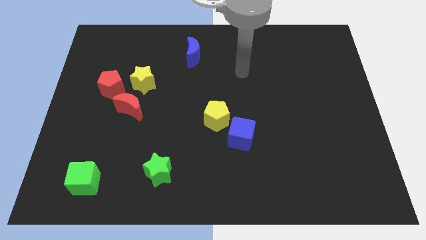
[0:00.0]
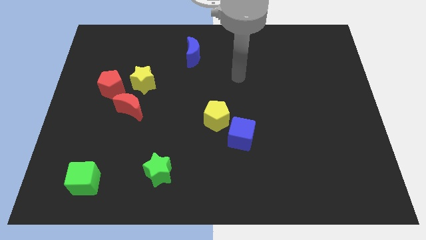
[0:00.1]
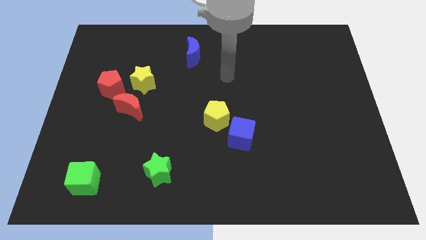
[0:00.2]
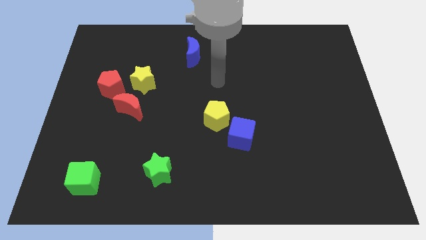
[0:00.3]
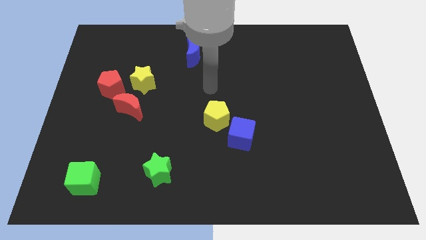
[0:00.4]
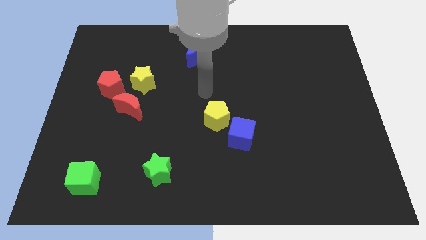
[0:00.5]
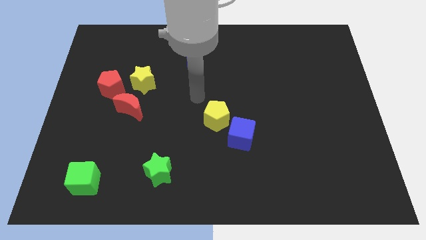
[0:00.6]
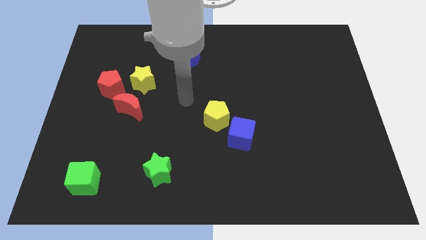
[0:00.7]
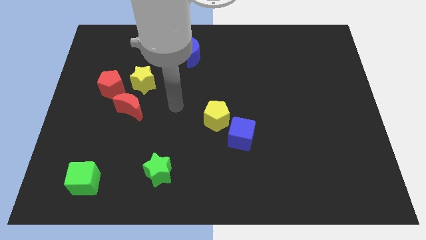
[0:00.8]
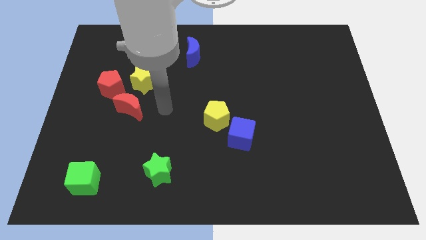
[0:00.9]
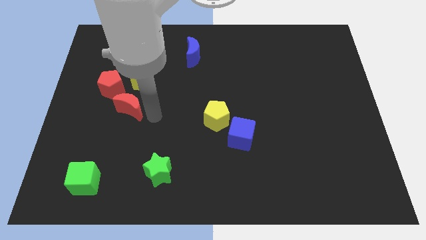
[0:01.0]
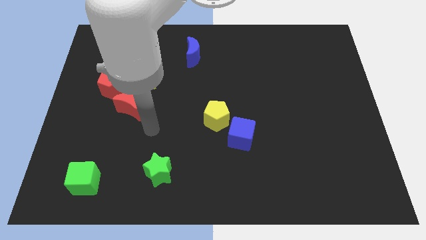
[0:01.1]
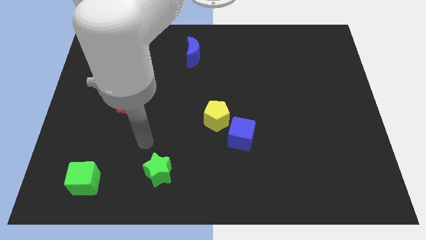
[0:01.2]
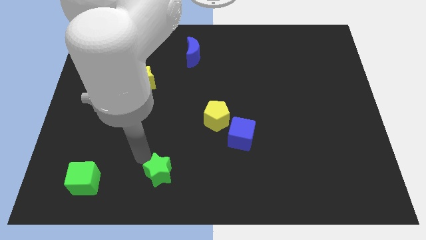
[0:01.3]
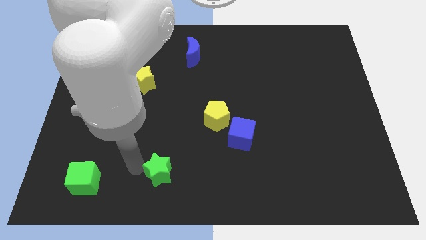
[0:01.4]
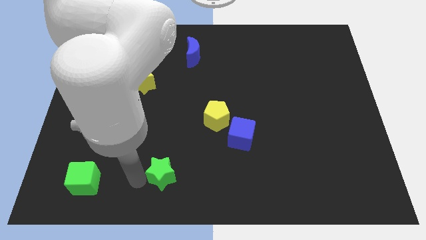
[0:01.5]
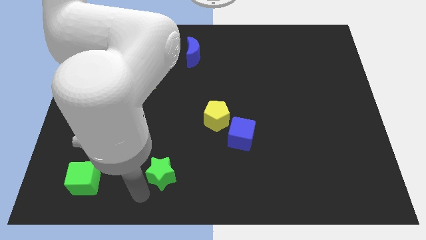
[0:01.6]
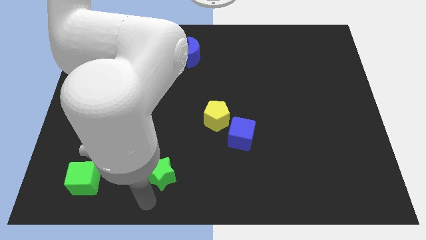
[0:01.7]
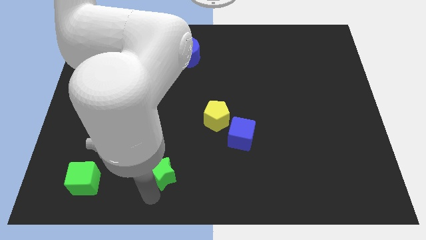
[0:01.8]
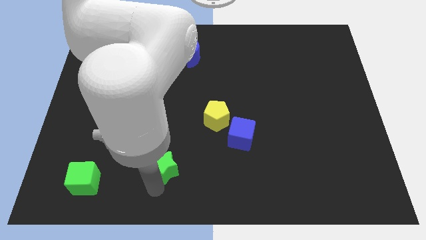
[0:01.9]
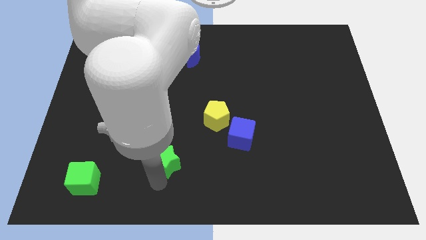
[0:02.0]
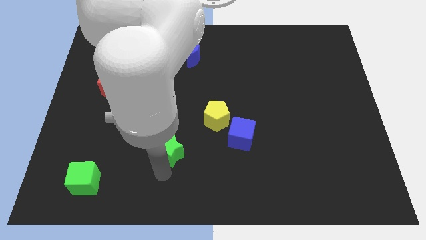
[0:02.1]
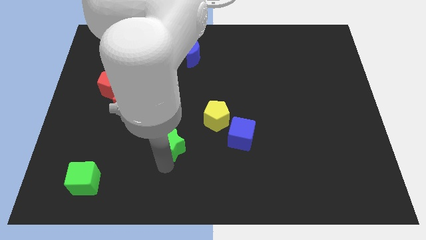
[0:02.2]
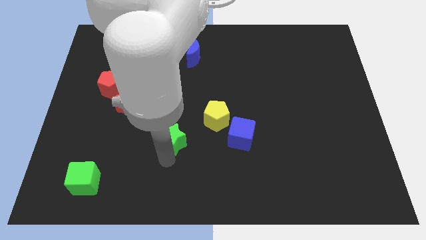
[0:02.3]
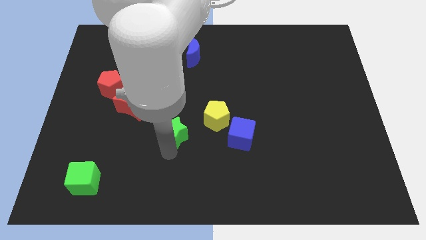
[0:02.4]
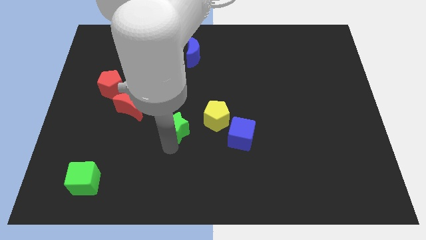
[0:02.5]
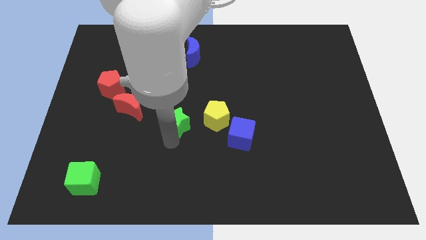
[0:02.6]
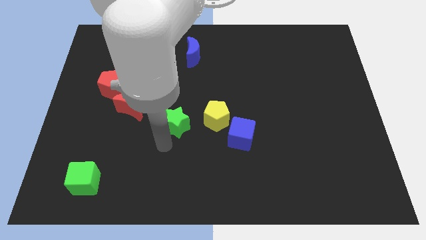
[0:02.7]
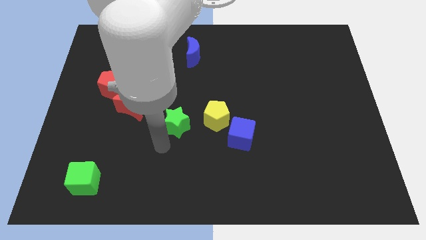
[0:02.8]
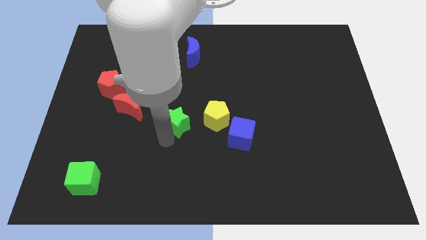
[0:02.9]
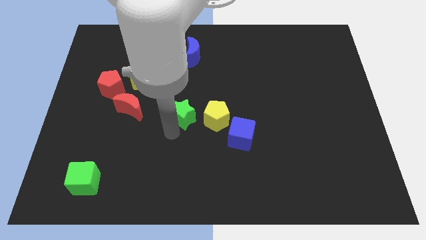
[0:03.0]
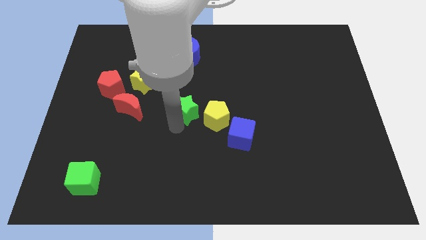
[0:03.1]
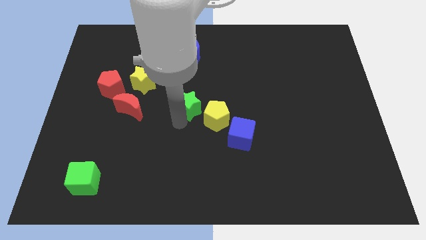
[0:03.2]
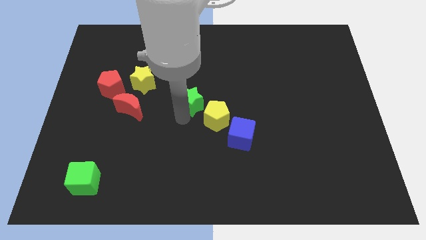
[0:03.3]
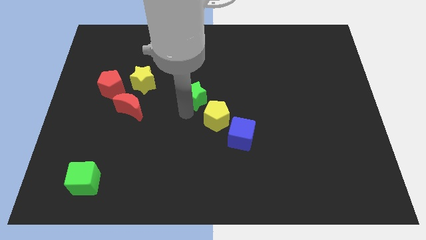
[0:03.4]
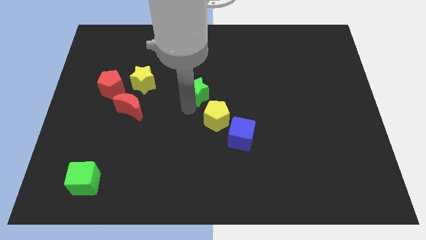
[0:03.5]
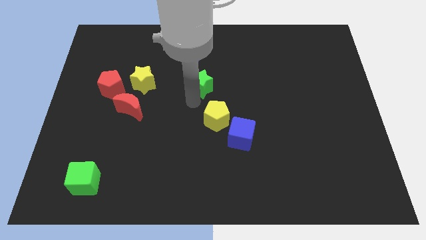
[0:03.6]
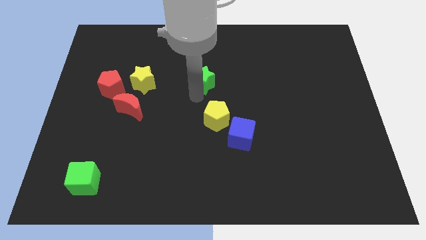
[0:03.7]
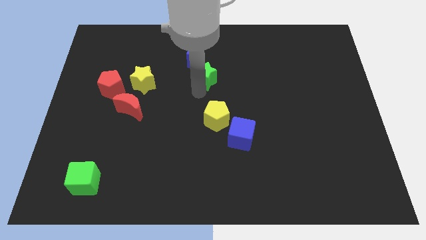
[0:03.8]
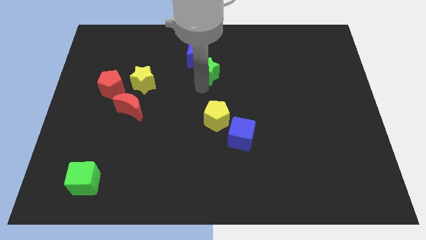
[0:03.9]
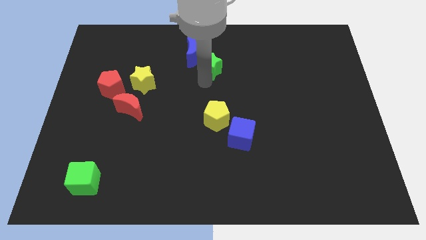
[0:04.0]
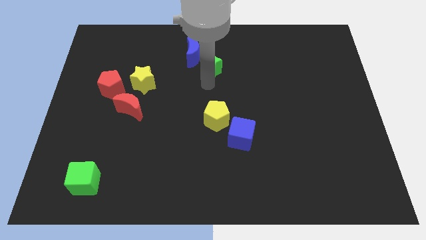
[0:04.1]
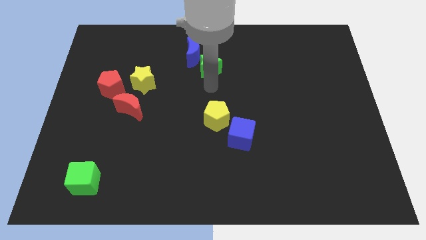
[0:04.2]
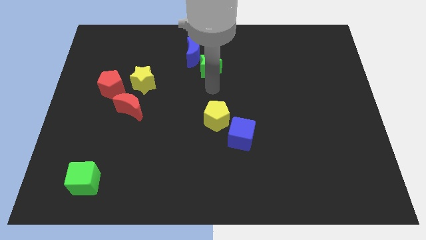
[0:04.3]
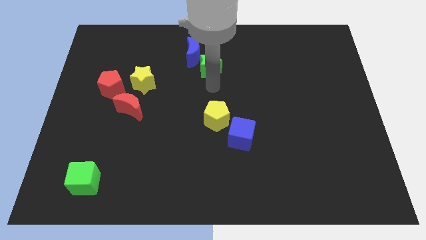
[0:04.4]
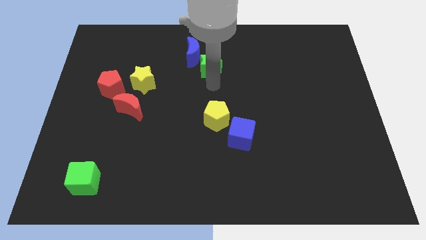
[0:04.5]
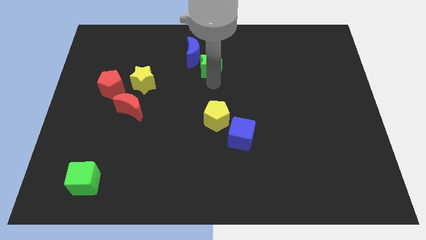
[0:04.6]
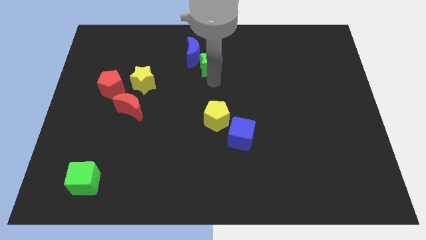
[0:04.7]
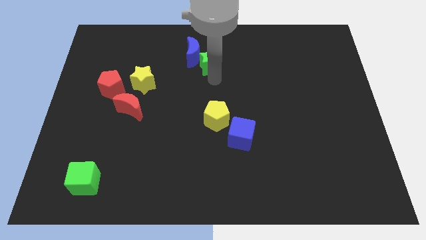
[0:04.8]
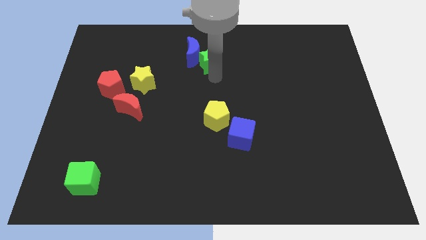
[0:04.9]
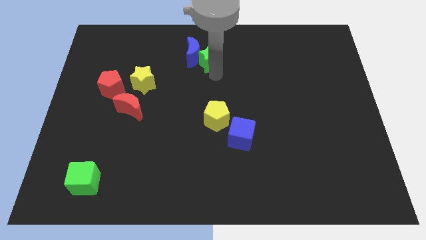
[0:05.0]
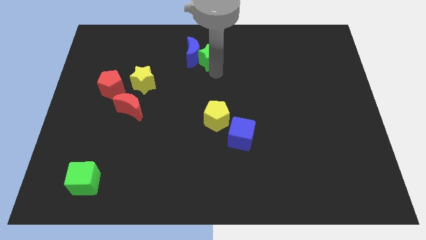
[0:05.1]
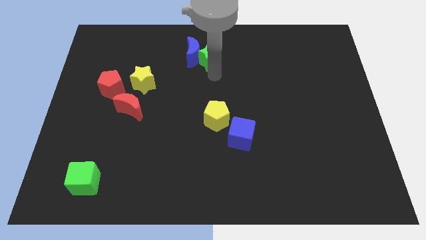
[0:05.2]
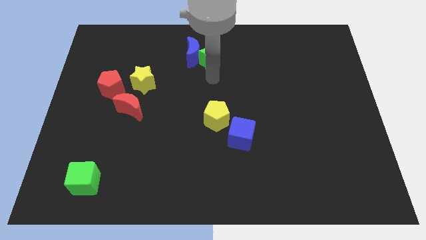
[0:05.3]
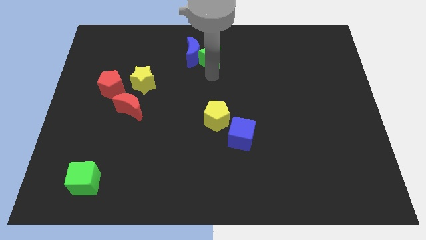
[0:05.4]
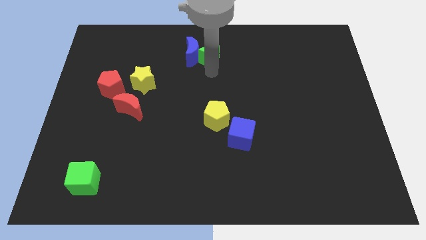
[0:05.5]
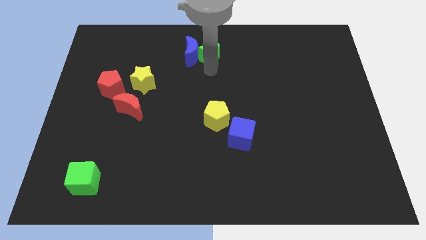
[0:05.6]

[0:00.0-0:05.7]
push the green star to the top
